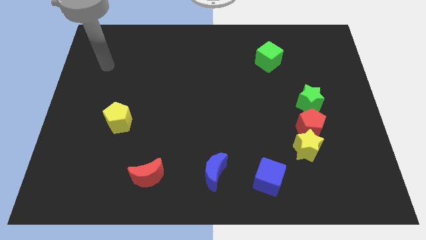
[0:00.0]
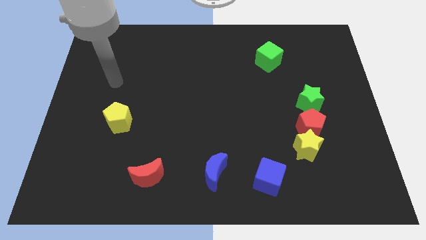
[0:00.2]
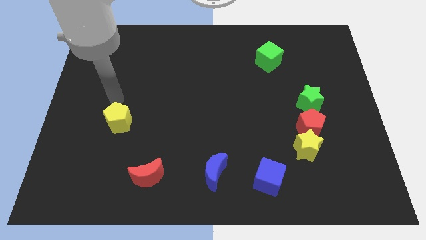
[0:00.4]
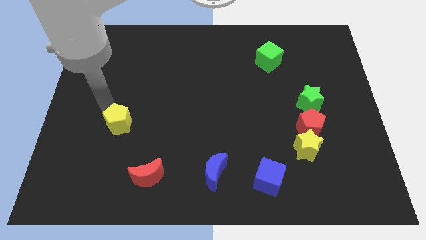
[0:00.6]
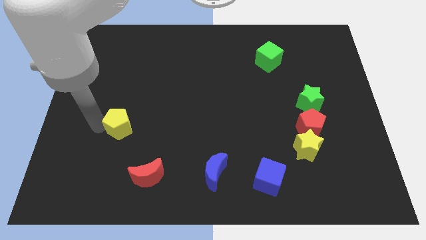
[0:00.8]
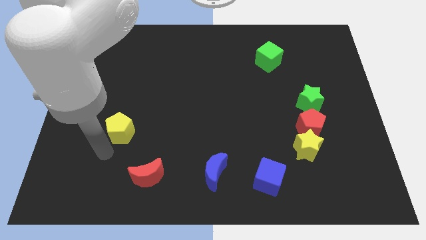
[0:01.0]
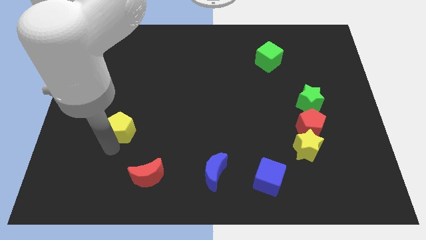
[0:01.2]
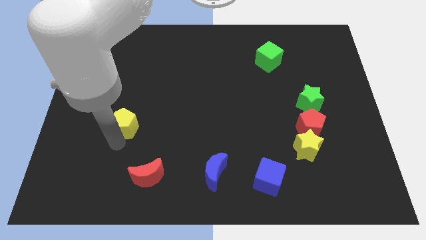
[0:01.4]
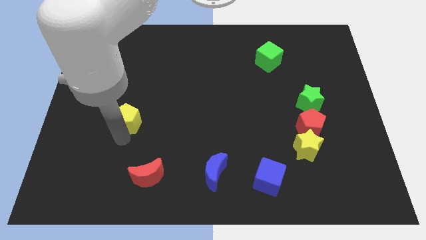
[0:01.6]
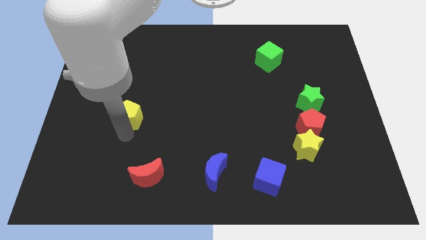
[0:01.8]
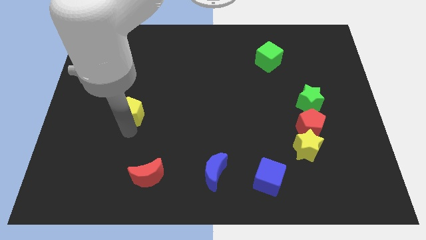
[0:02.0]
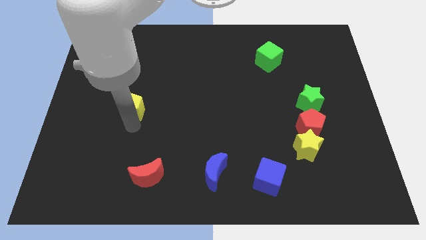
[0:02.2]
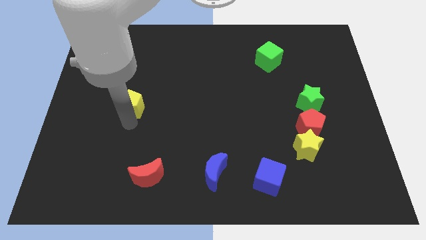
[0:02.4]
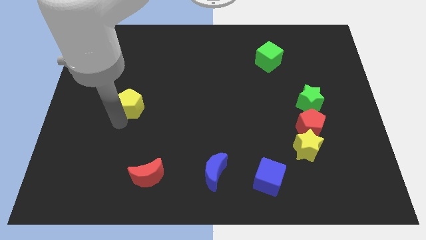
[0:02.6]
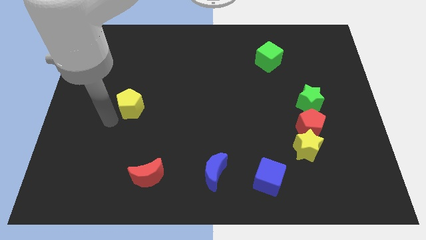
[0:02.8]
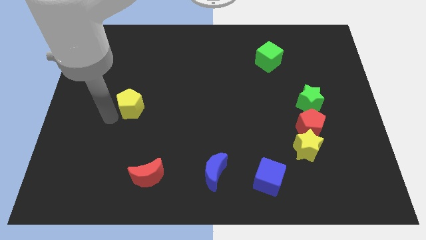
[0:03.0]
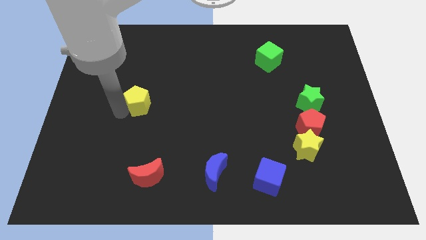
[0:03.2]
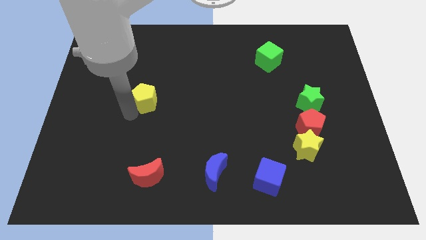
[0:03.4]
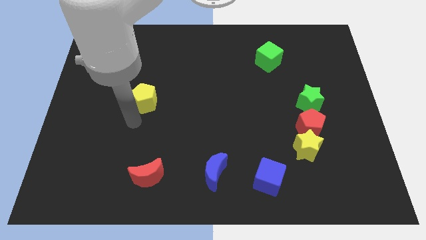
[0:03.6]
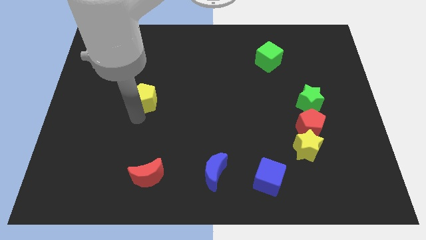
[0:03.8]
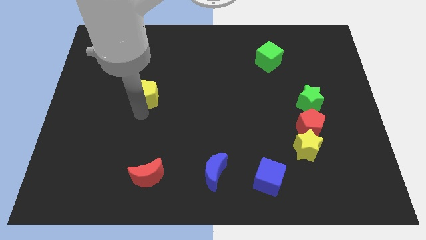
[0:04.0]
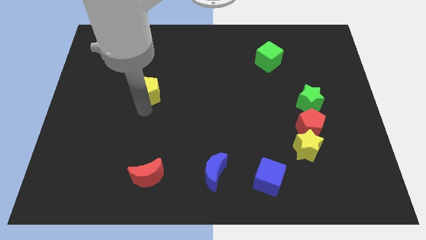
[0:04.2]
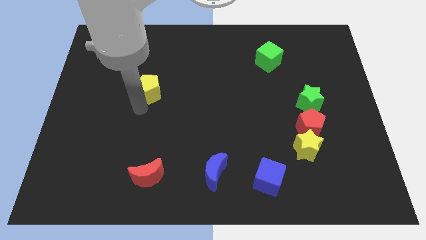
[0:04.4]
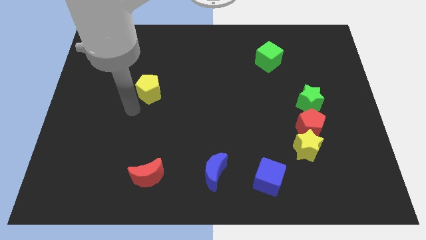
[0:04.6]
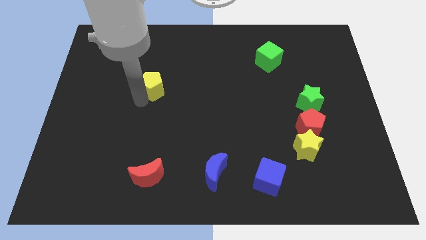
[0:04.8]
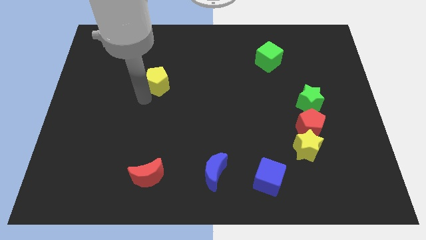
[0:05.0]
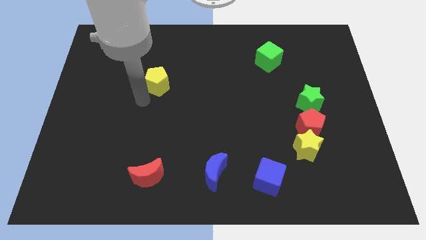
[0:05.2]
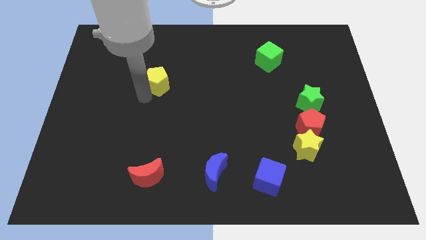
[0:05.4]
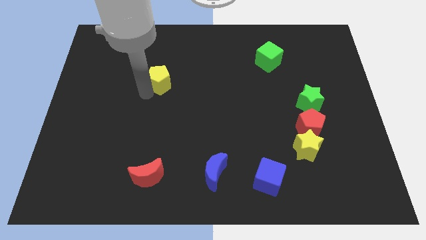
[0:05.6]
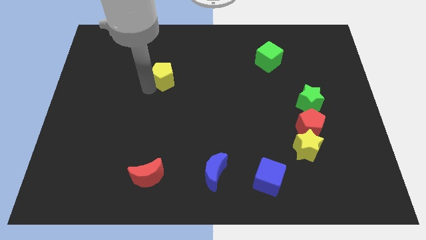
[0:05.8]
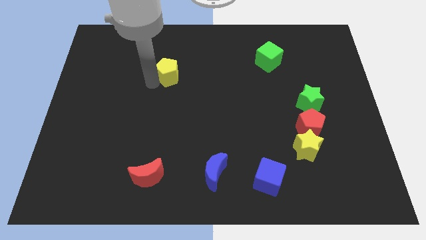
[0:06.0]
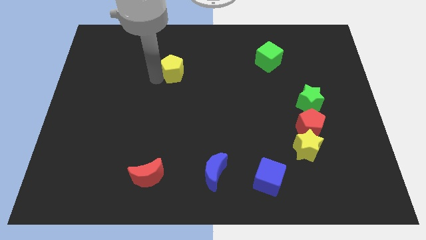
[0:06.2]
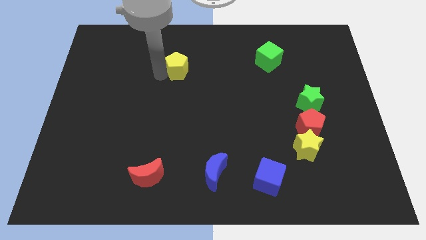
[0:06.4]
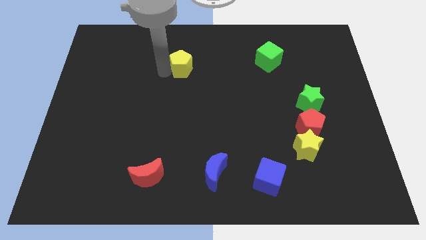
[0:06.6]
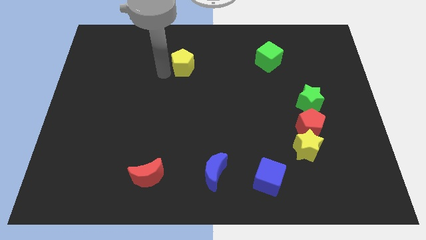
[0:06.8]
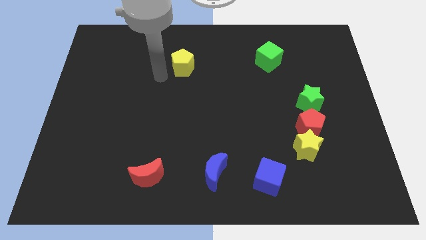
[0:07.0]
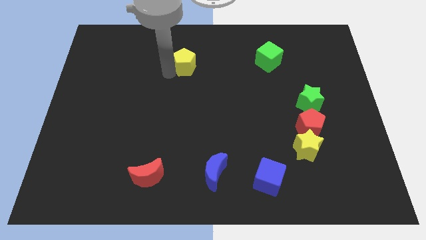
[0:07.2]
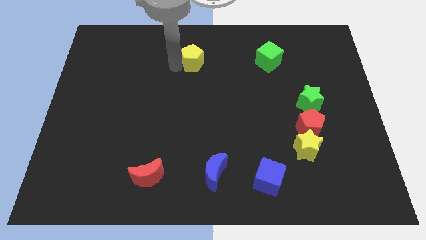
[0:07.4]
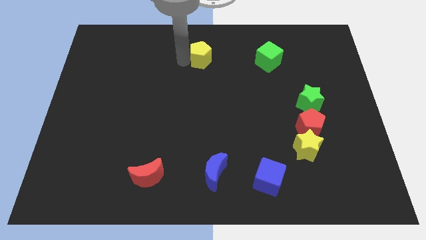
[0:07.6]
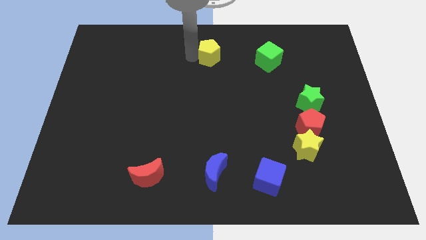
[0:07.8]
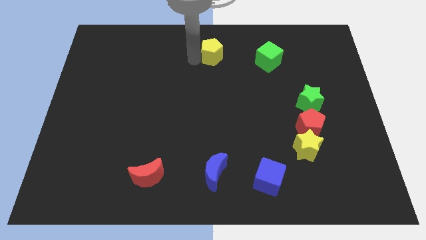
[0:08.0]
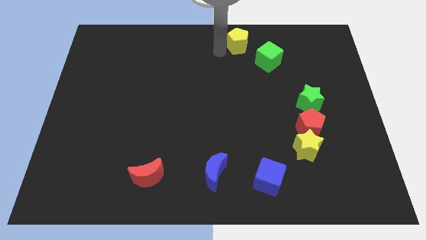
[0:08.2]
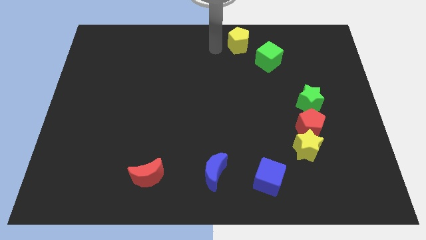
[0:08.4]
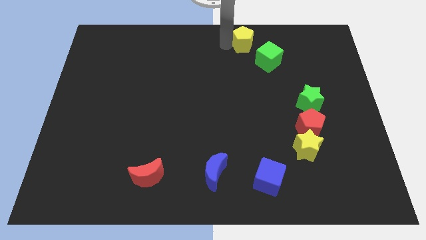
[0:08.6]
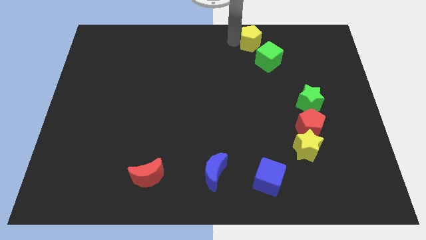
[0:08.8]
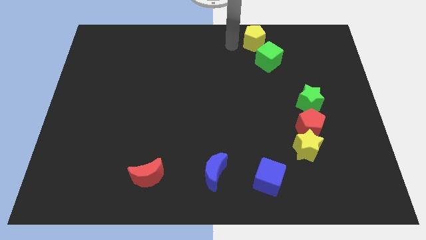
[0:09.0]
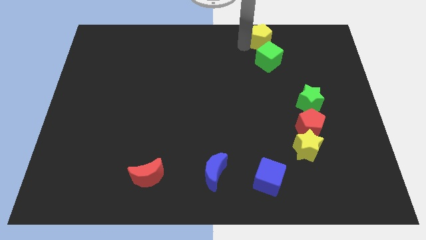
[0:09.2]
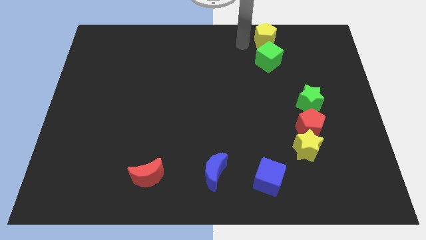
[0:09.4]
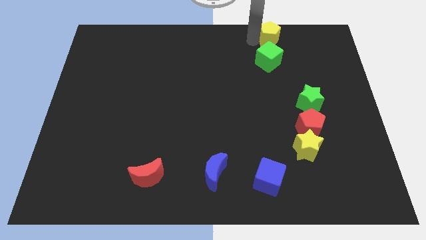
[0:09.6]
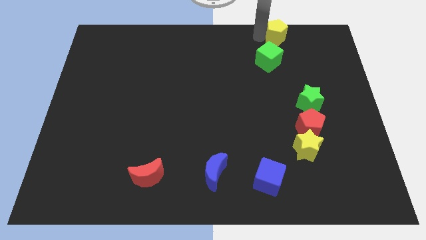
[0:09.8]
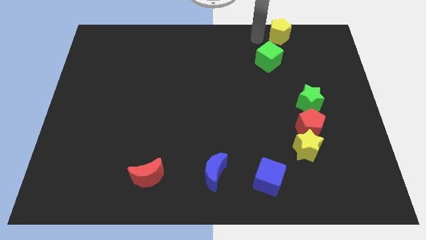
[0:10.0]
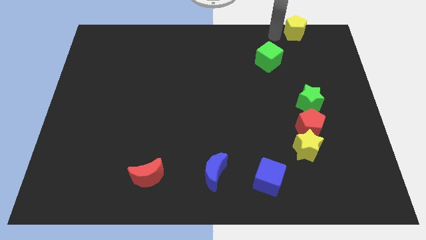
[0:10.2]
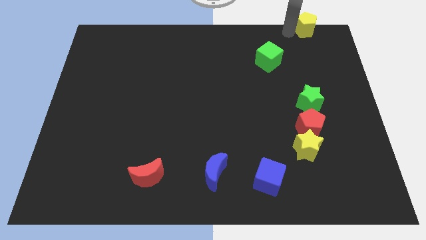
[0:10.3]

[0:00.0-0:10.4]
put the yellow pentagon to the top right of the board

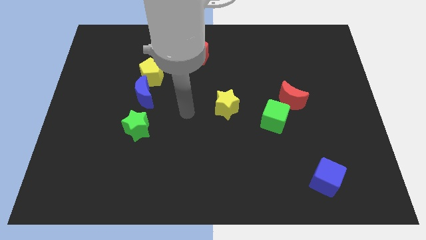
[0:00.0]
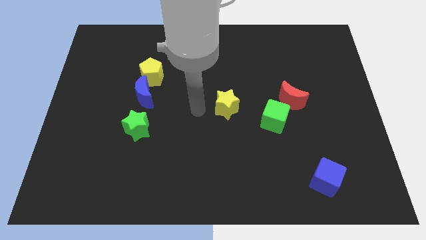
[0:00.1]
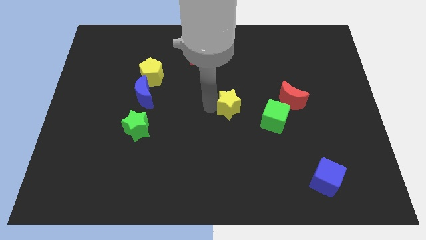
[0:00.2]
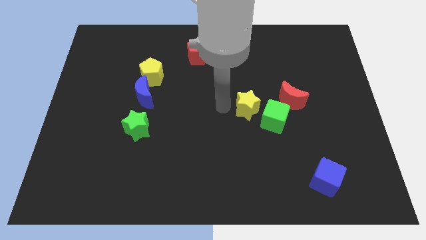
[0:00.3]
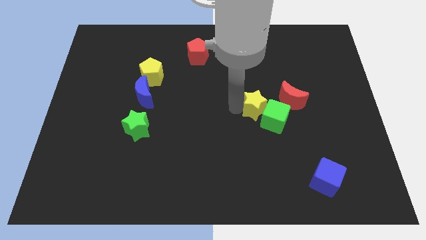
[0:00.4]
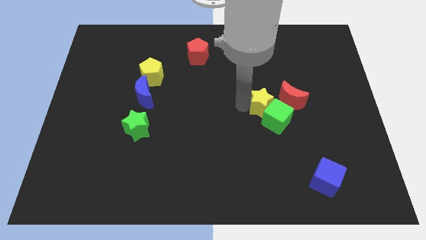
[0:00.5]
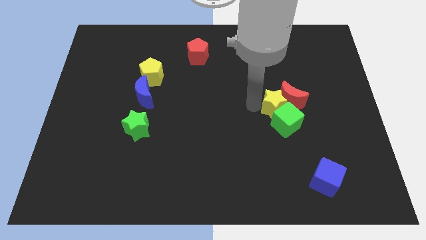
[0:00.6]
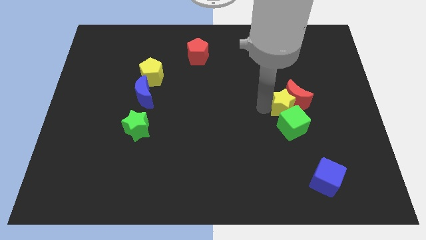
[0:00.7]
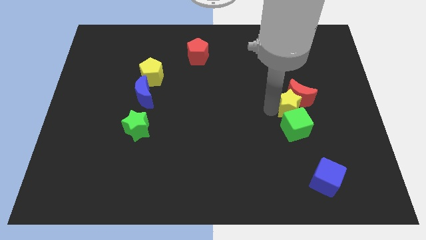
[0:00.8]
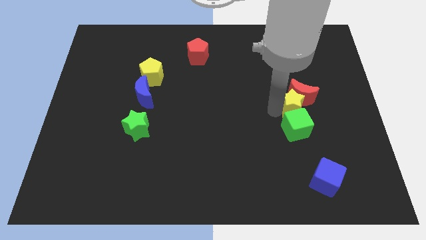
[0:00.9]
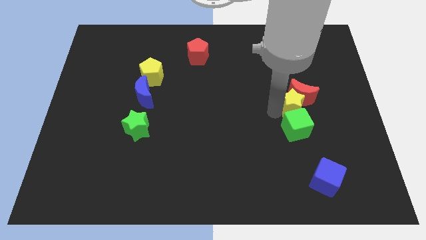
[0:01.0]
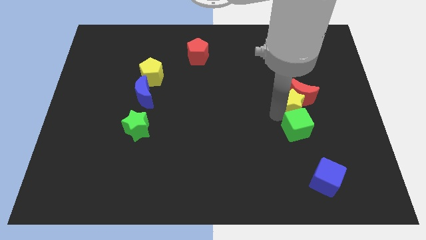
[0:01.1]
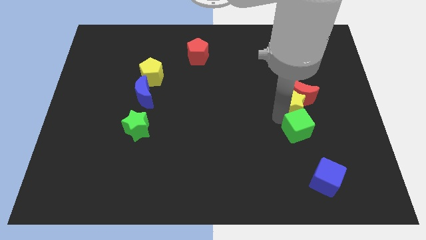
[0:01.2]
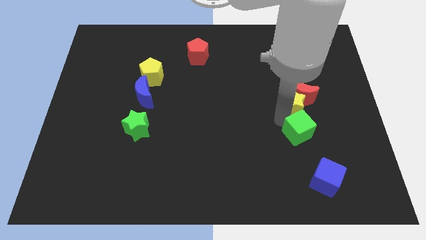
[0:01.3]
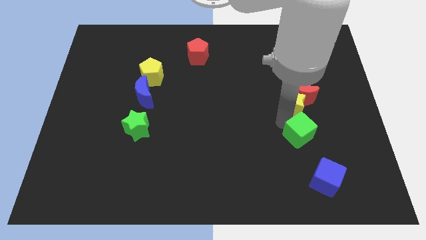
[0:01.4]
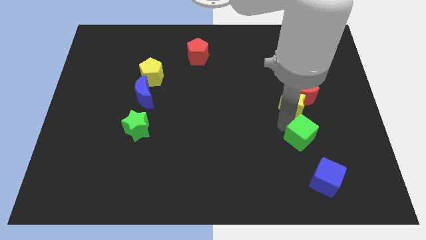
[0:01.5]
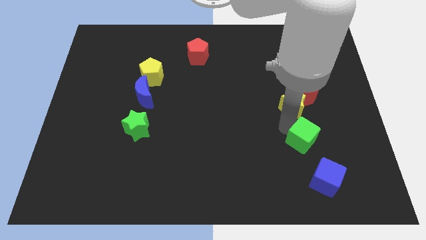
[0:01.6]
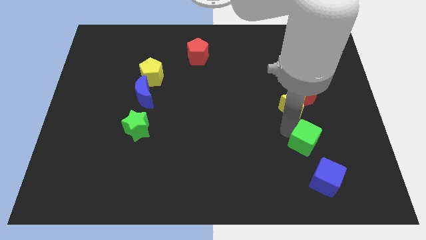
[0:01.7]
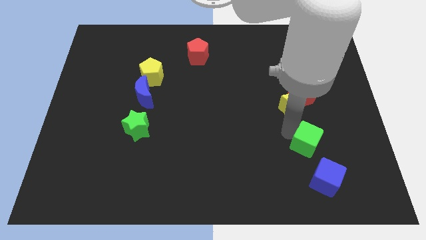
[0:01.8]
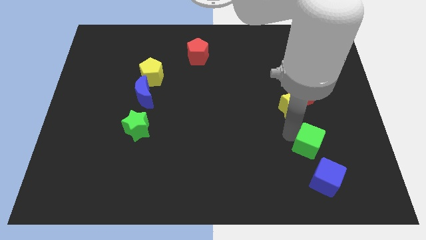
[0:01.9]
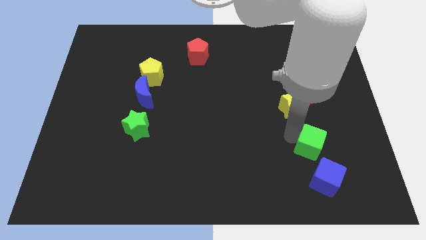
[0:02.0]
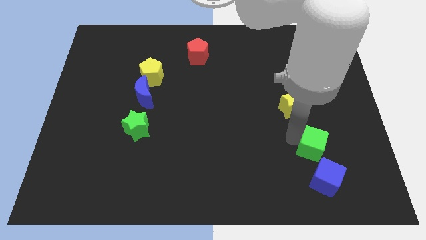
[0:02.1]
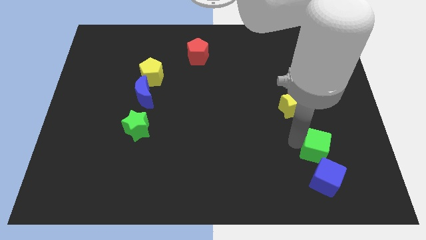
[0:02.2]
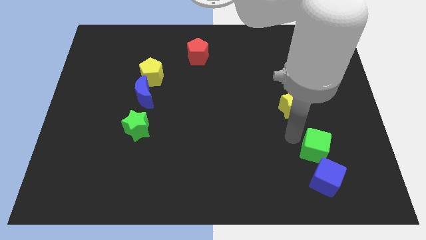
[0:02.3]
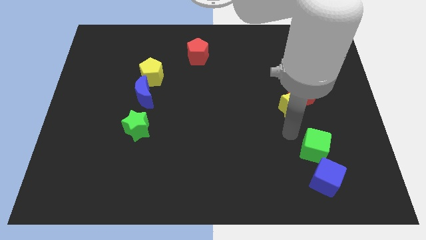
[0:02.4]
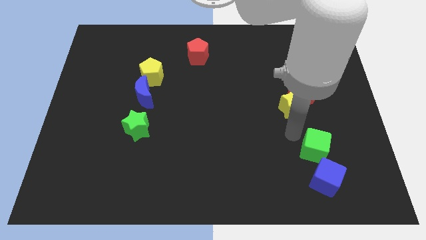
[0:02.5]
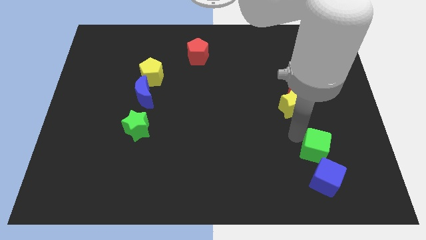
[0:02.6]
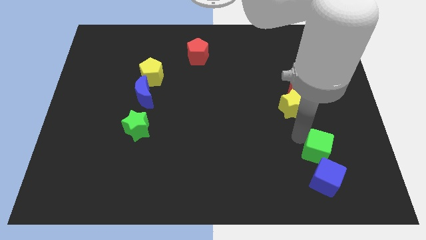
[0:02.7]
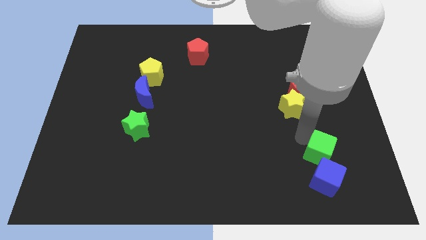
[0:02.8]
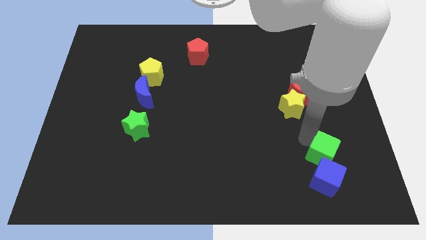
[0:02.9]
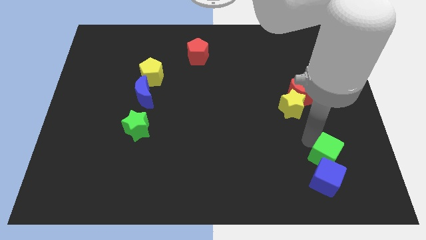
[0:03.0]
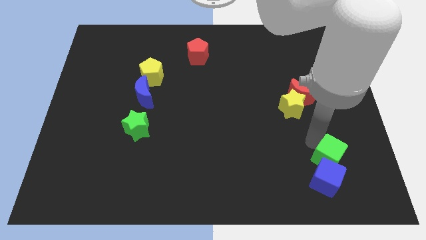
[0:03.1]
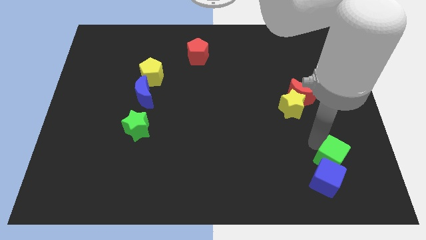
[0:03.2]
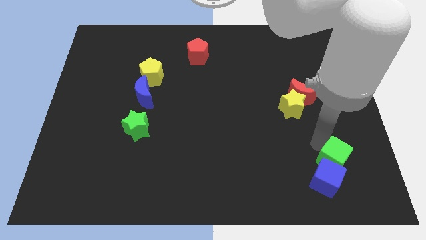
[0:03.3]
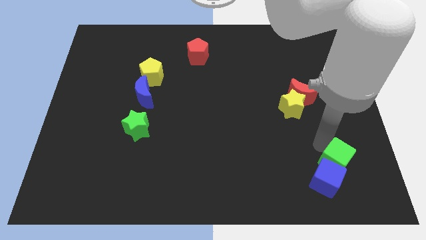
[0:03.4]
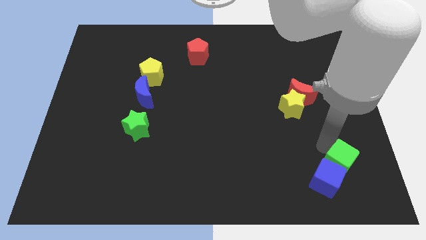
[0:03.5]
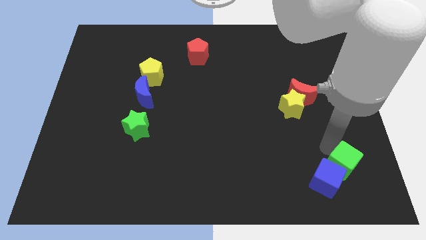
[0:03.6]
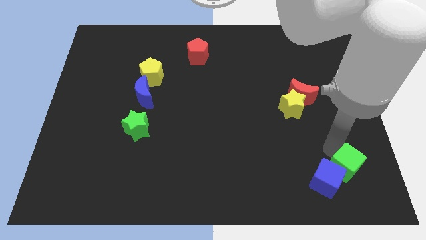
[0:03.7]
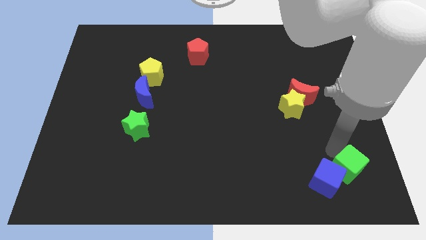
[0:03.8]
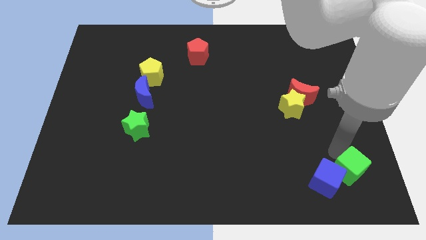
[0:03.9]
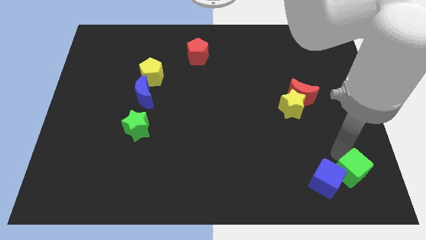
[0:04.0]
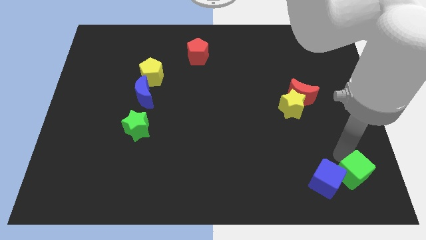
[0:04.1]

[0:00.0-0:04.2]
move the green cube to the bottom right
